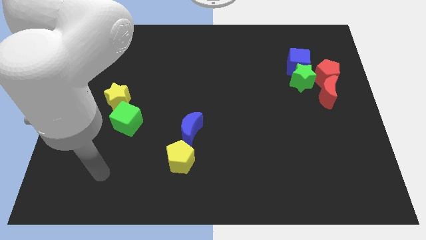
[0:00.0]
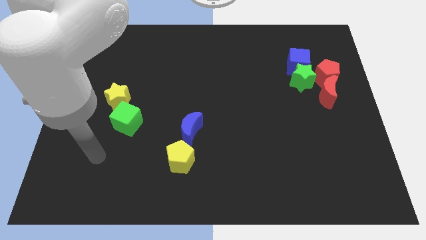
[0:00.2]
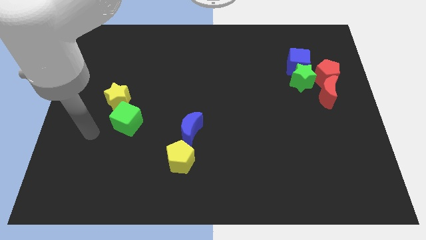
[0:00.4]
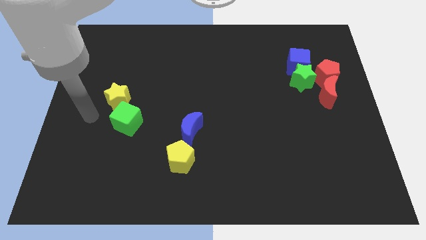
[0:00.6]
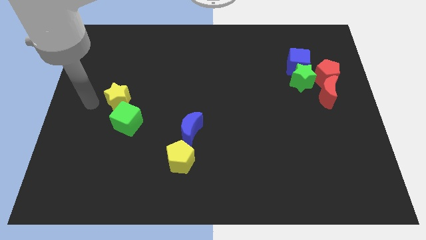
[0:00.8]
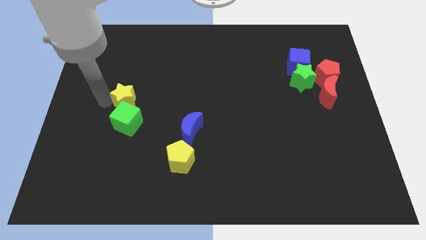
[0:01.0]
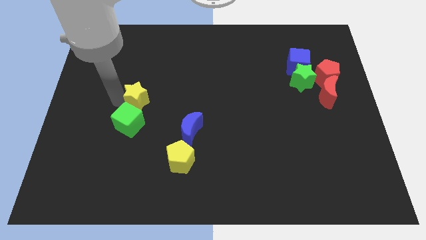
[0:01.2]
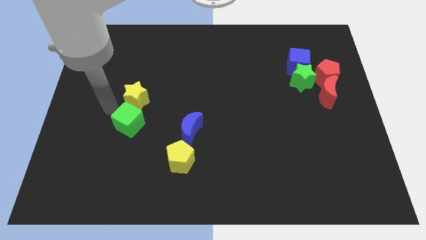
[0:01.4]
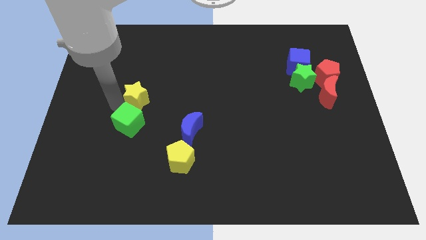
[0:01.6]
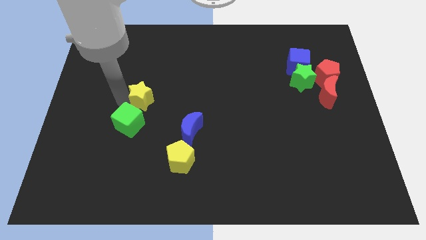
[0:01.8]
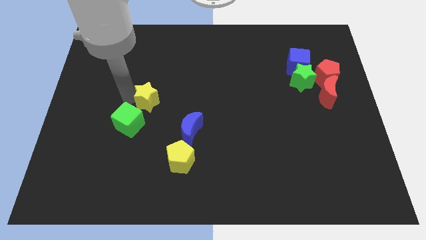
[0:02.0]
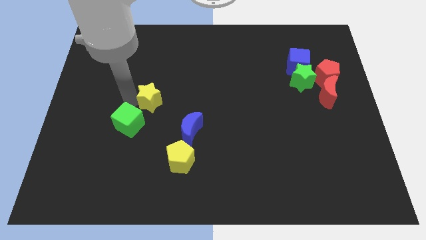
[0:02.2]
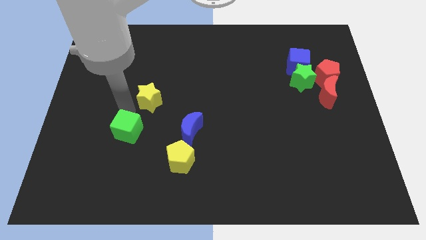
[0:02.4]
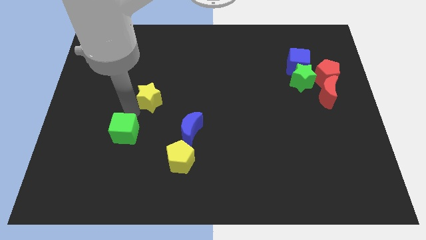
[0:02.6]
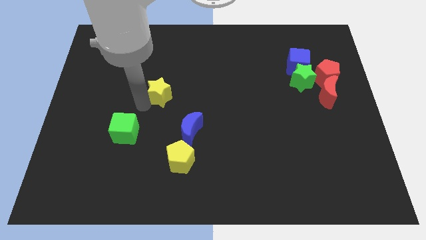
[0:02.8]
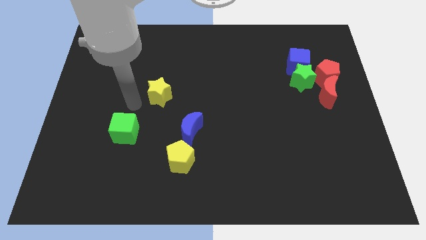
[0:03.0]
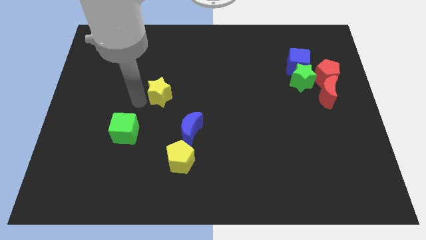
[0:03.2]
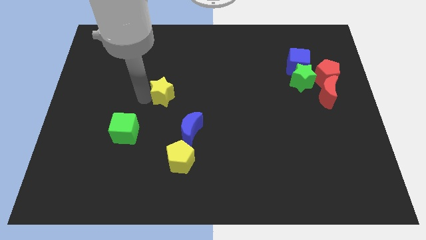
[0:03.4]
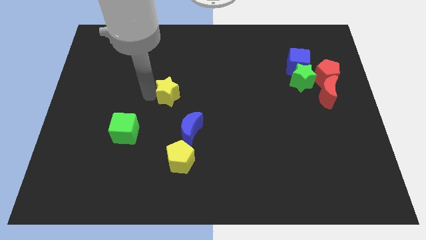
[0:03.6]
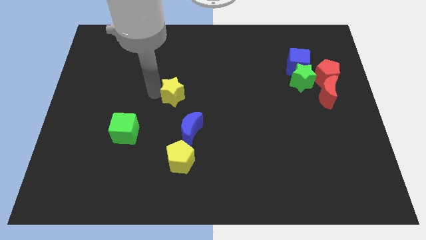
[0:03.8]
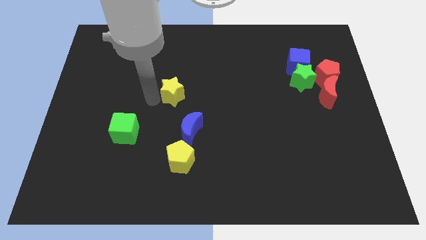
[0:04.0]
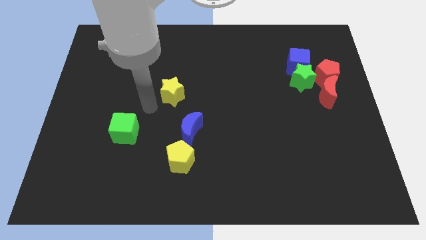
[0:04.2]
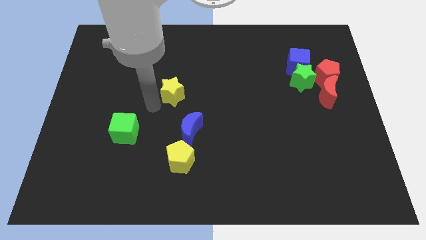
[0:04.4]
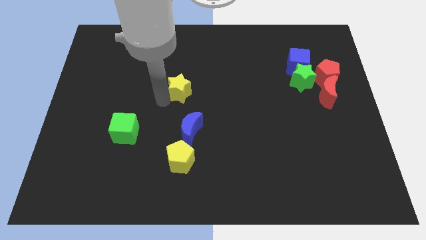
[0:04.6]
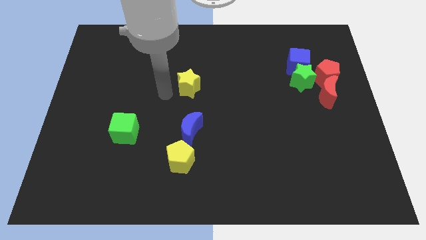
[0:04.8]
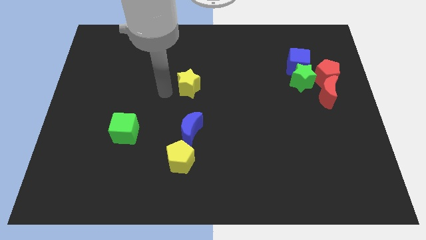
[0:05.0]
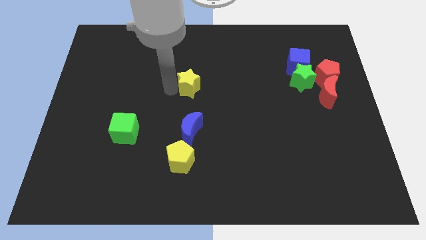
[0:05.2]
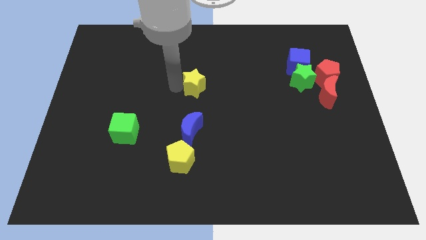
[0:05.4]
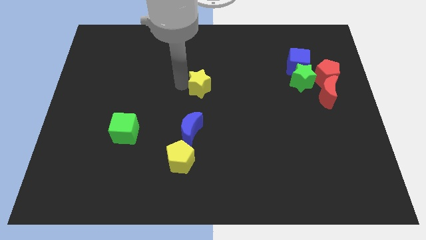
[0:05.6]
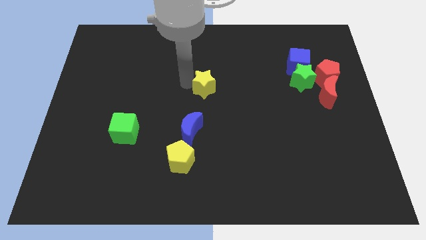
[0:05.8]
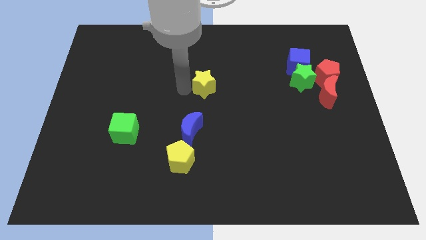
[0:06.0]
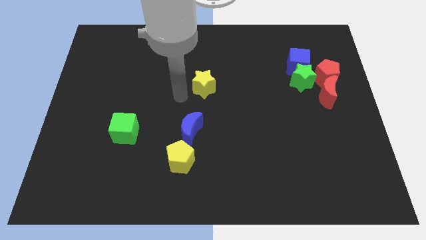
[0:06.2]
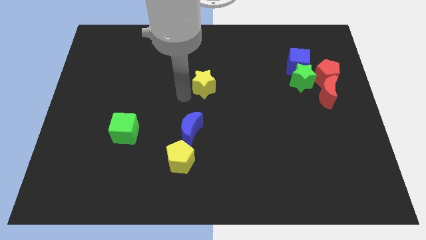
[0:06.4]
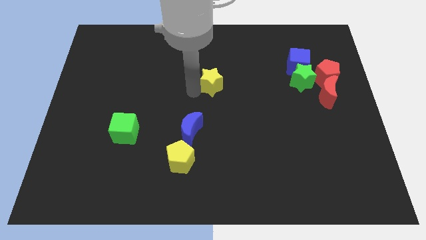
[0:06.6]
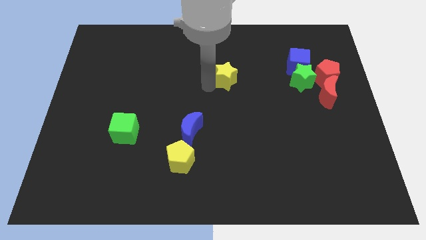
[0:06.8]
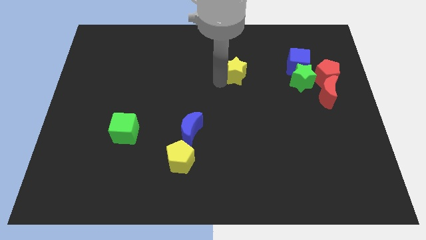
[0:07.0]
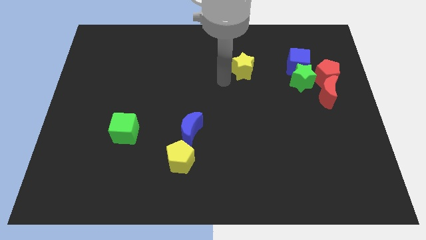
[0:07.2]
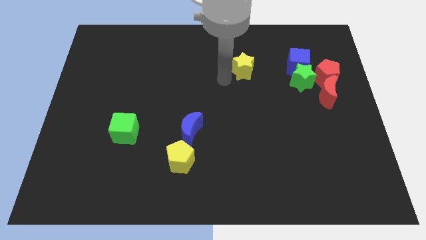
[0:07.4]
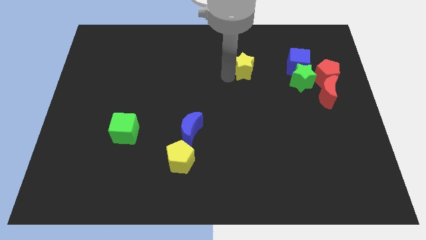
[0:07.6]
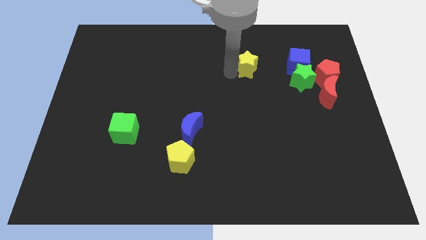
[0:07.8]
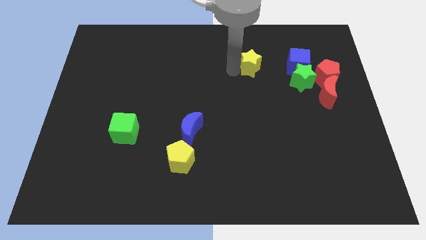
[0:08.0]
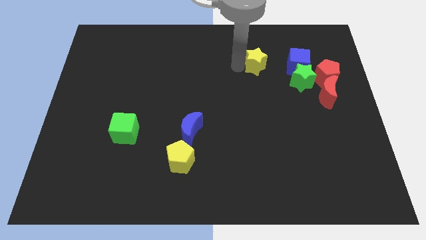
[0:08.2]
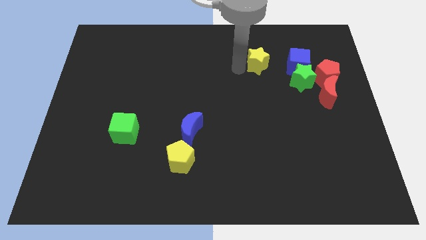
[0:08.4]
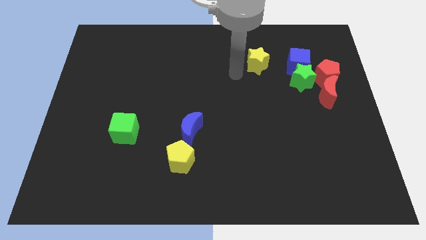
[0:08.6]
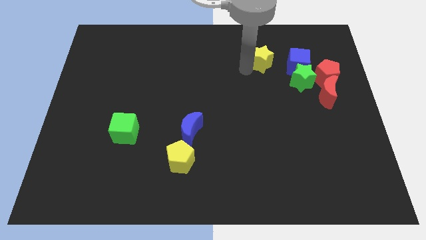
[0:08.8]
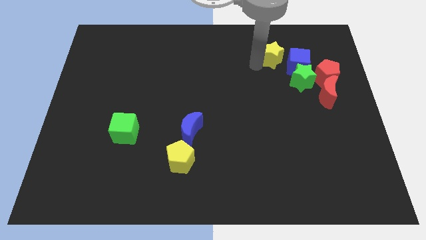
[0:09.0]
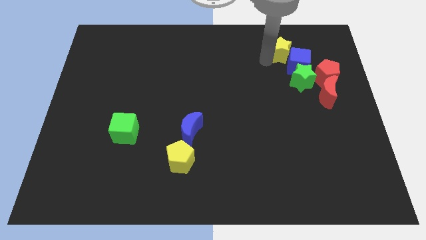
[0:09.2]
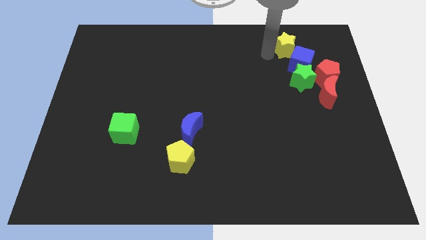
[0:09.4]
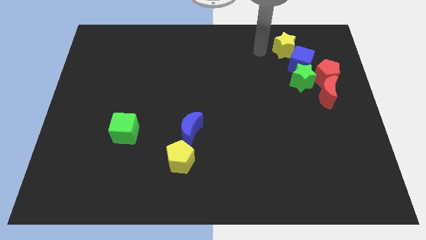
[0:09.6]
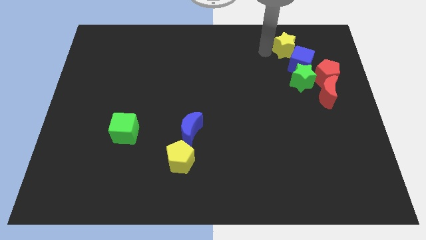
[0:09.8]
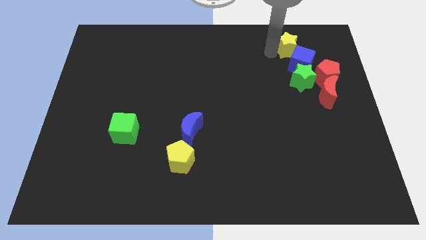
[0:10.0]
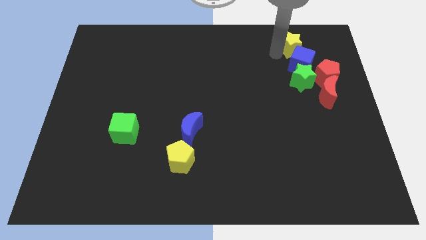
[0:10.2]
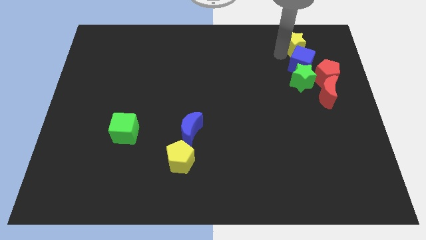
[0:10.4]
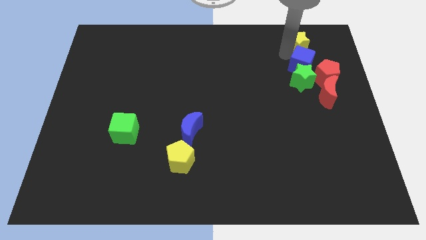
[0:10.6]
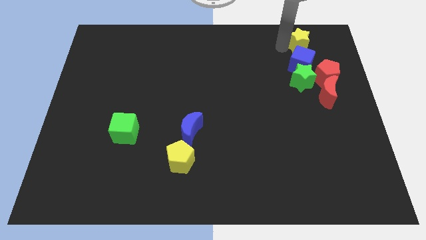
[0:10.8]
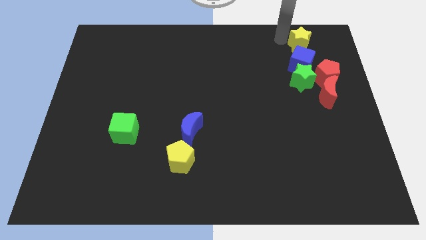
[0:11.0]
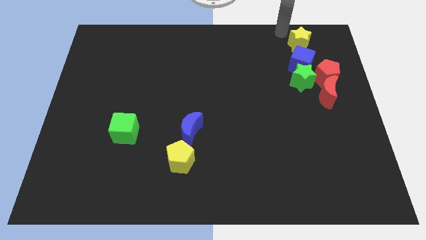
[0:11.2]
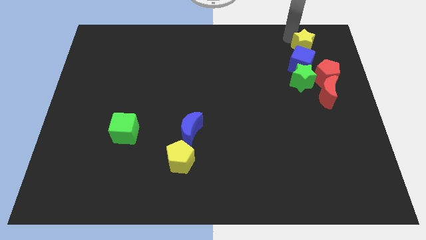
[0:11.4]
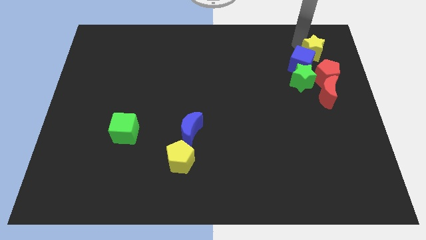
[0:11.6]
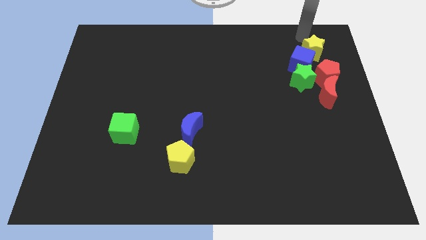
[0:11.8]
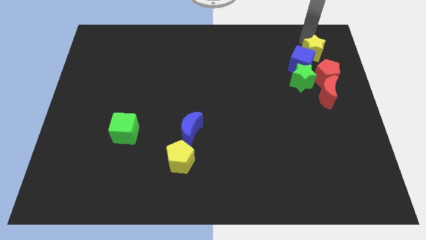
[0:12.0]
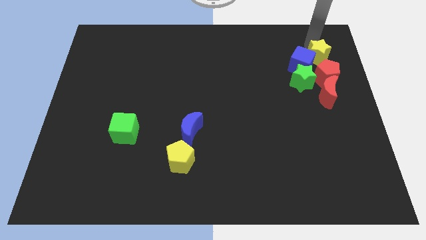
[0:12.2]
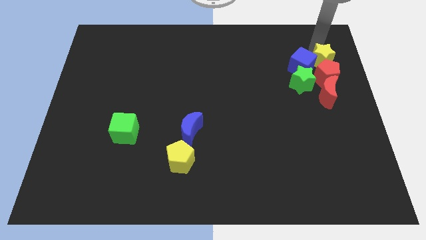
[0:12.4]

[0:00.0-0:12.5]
push the yellow star towards the red pentagon

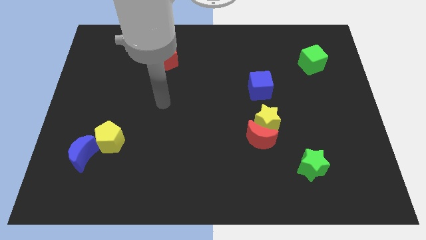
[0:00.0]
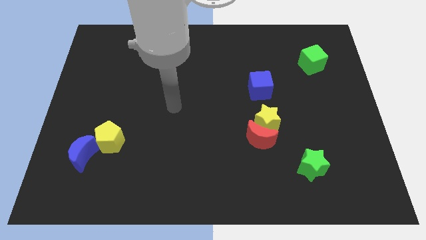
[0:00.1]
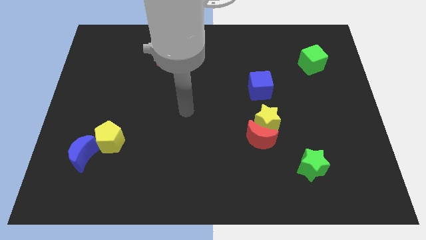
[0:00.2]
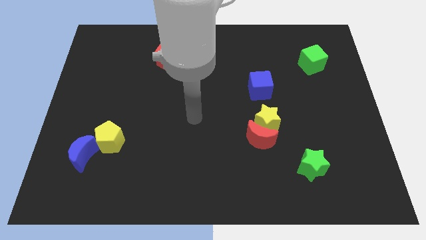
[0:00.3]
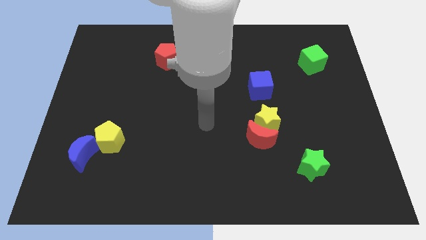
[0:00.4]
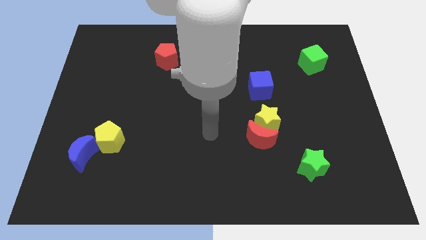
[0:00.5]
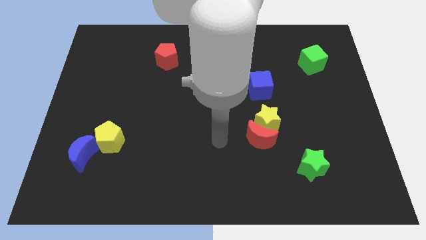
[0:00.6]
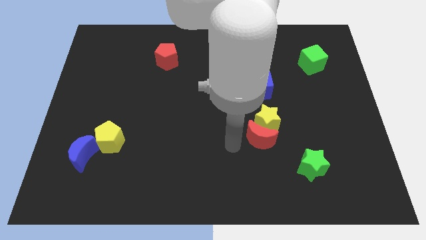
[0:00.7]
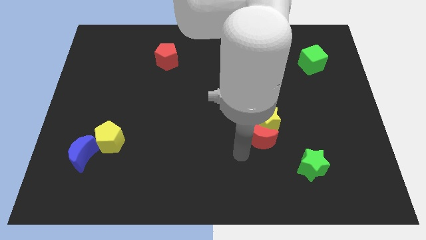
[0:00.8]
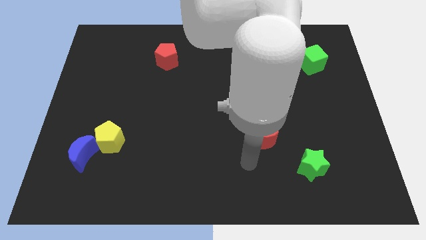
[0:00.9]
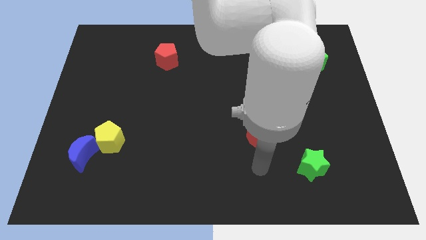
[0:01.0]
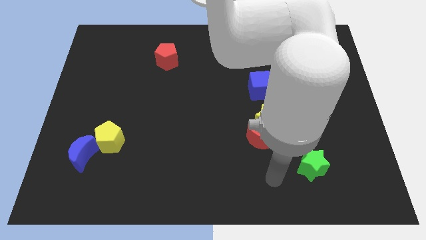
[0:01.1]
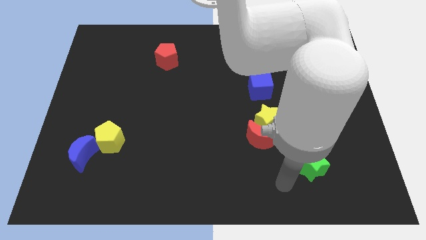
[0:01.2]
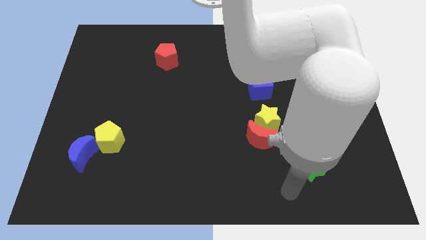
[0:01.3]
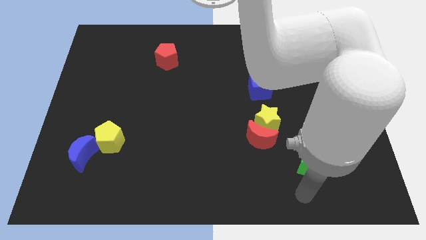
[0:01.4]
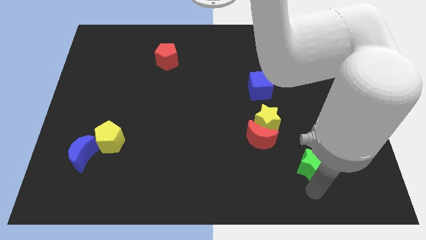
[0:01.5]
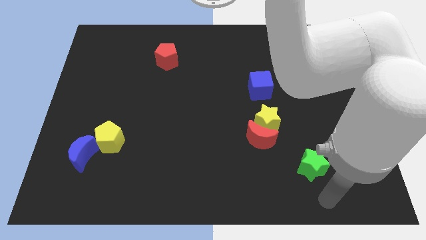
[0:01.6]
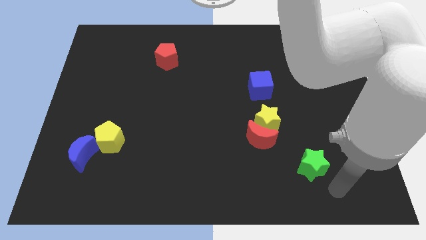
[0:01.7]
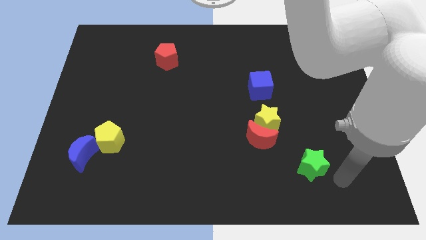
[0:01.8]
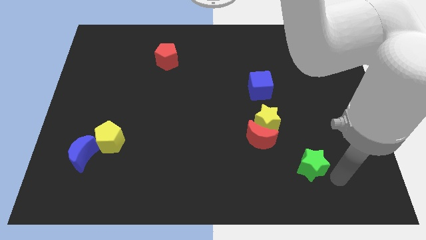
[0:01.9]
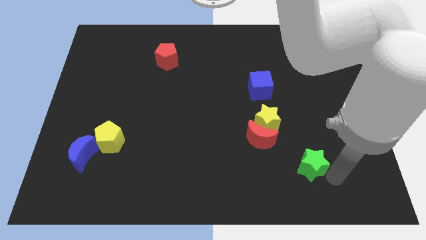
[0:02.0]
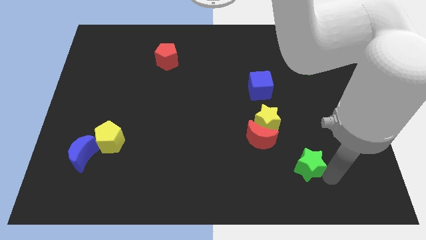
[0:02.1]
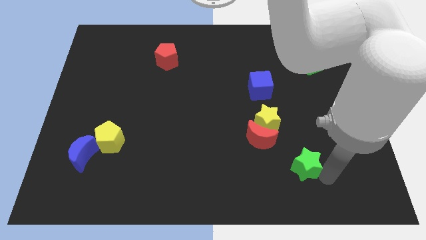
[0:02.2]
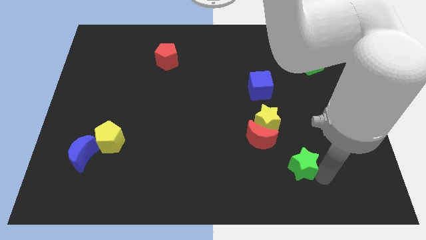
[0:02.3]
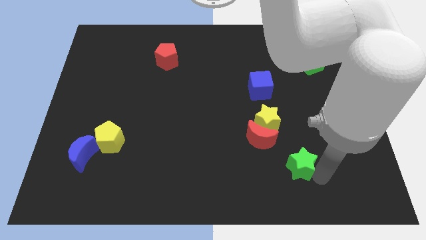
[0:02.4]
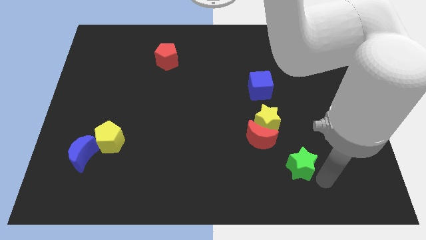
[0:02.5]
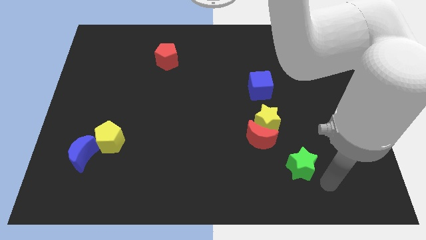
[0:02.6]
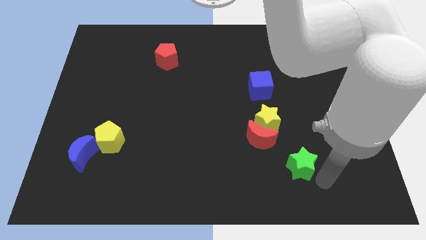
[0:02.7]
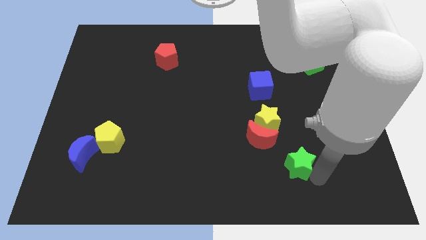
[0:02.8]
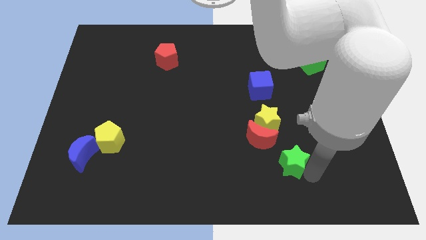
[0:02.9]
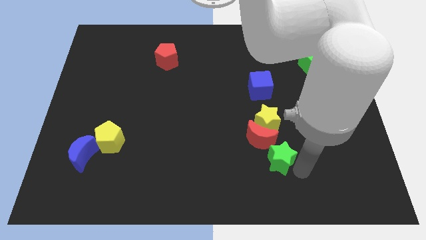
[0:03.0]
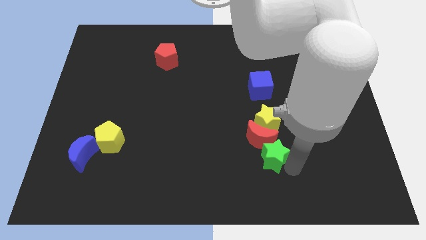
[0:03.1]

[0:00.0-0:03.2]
push the green star close to the red moon
